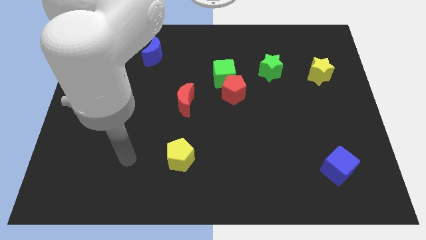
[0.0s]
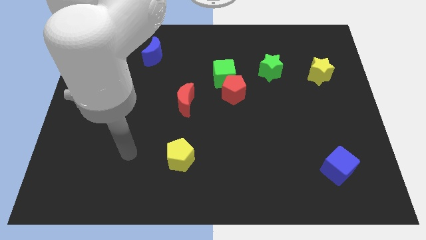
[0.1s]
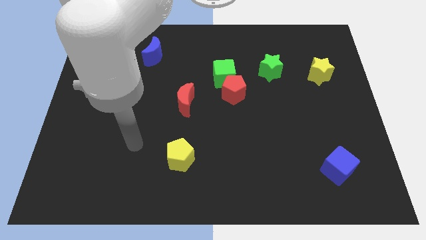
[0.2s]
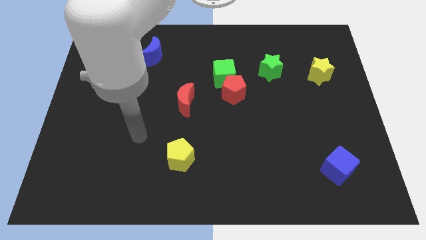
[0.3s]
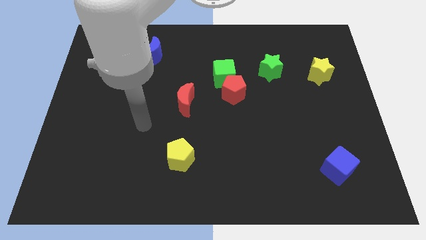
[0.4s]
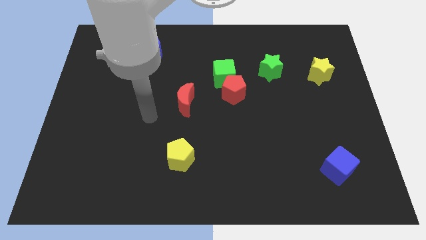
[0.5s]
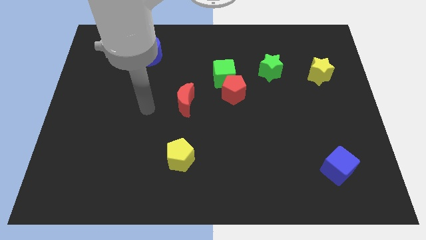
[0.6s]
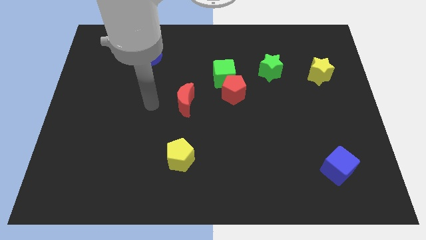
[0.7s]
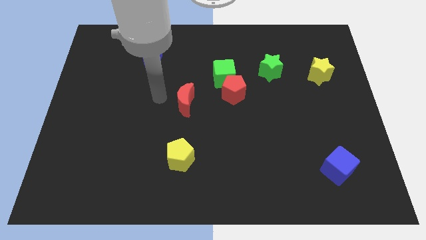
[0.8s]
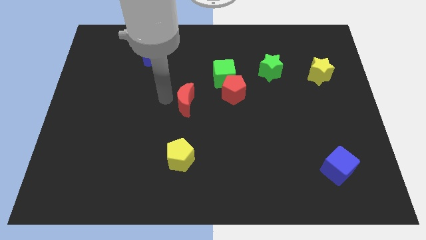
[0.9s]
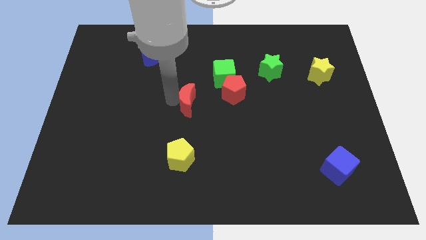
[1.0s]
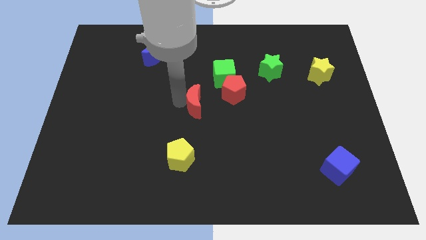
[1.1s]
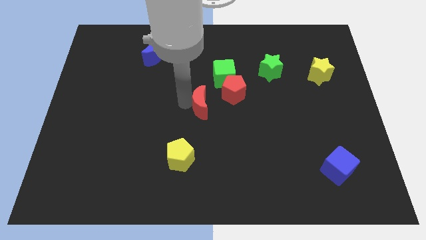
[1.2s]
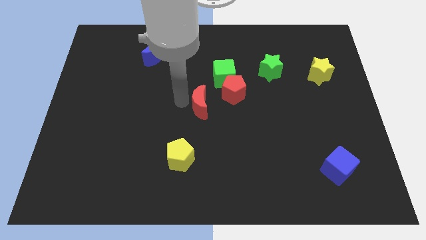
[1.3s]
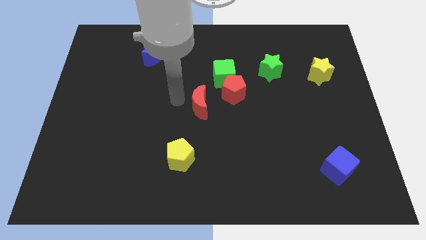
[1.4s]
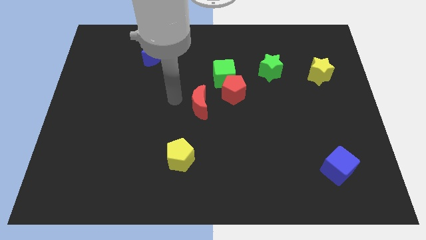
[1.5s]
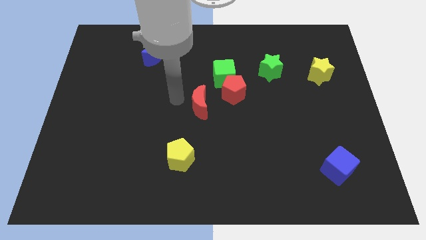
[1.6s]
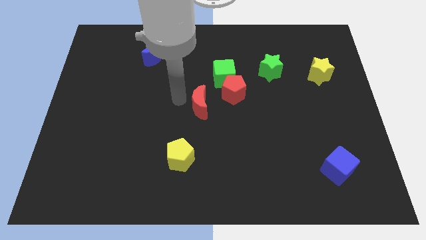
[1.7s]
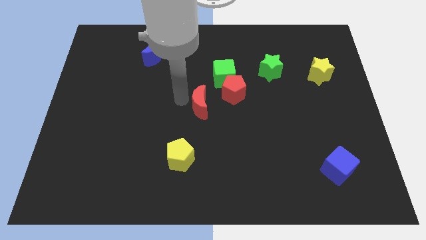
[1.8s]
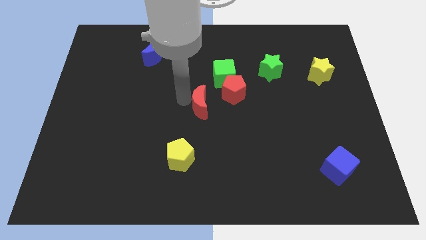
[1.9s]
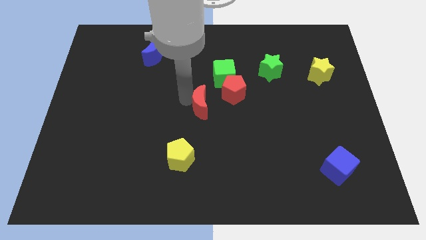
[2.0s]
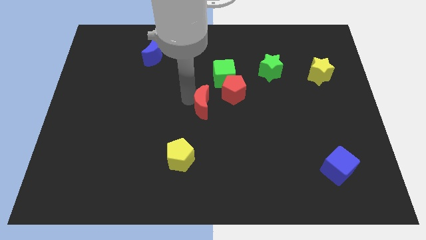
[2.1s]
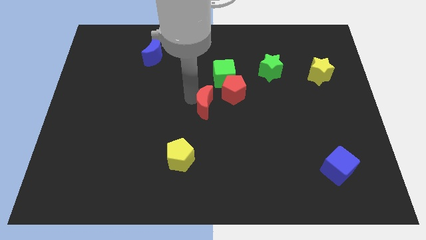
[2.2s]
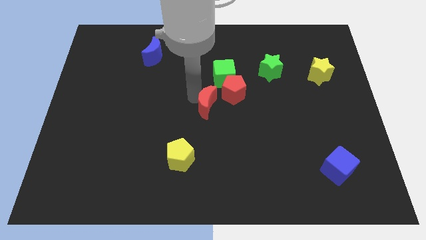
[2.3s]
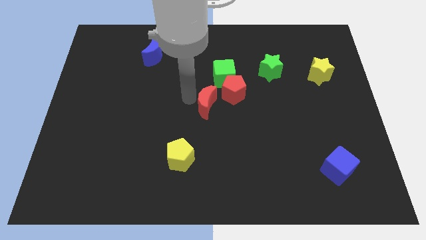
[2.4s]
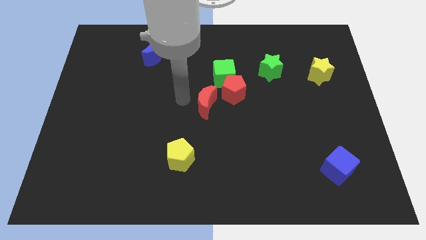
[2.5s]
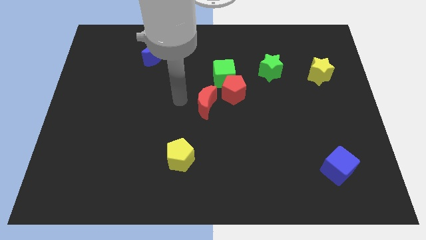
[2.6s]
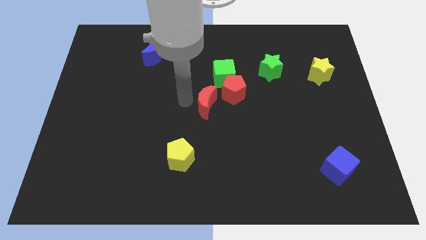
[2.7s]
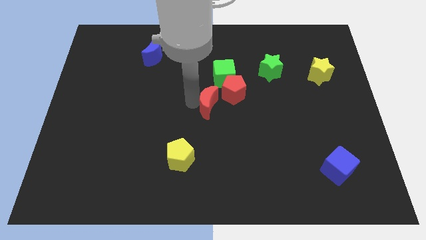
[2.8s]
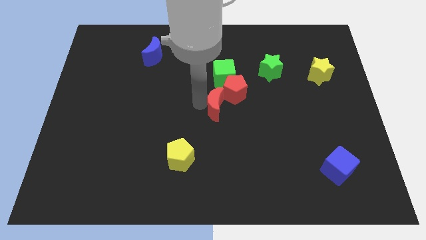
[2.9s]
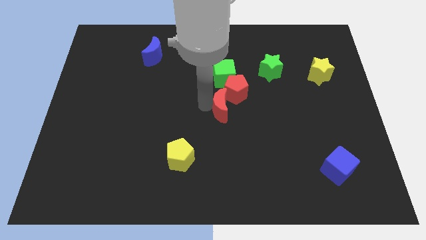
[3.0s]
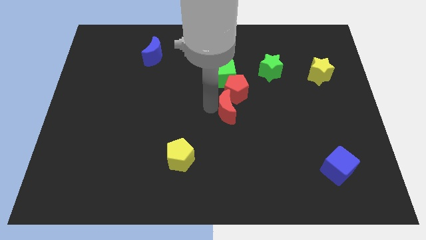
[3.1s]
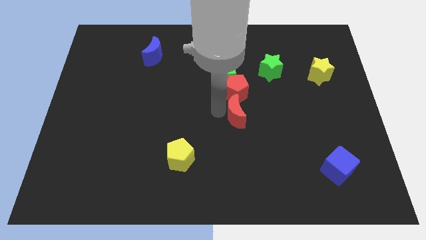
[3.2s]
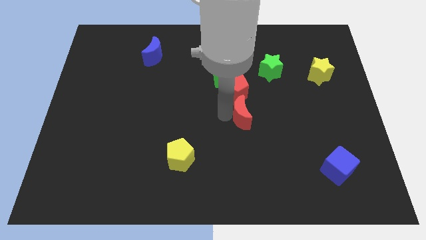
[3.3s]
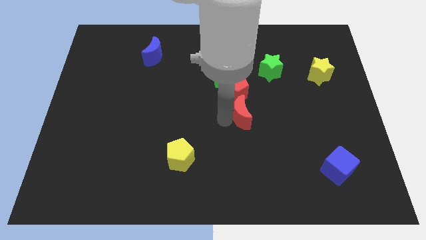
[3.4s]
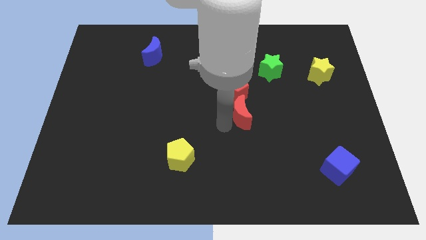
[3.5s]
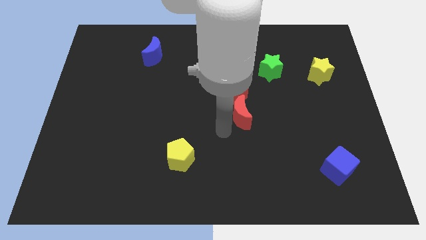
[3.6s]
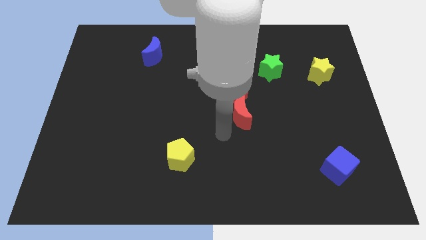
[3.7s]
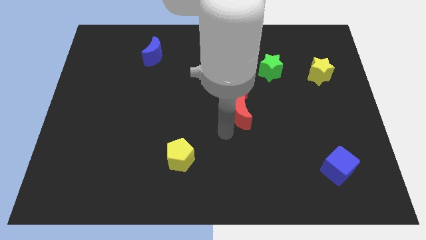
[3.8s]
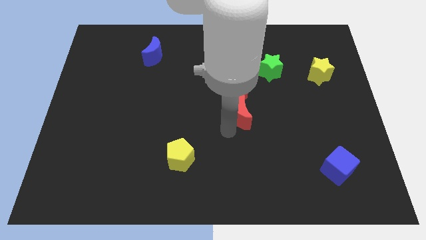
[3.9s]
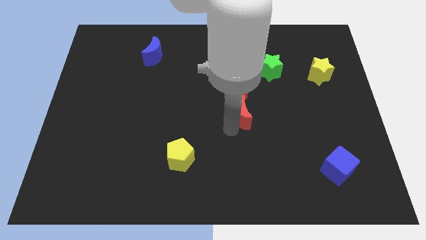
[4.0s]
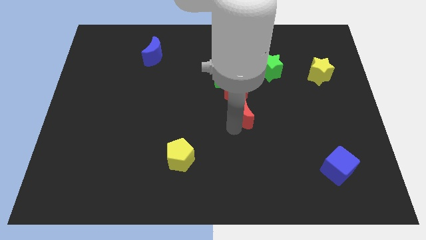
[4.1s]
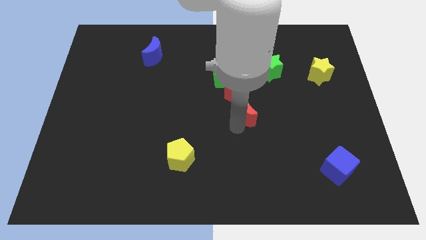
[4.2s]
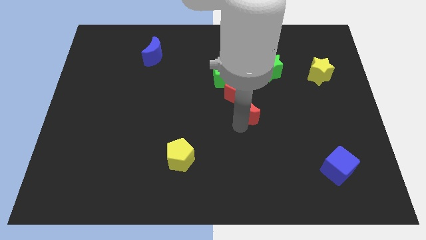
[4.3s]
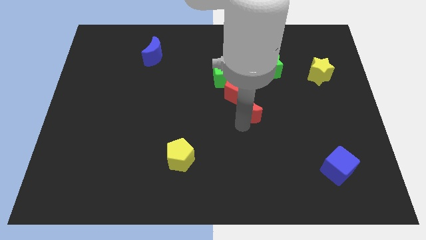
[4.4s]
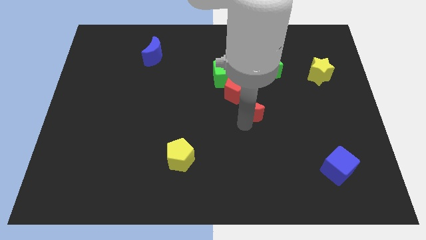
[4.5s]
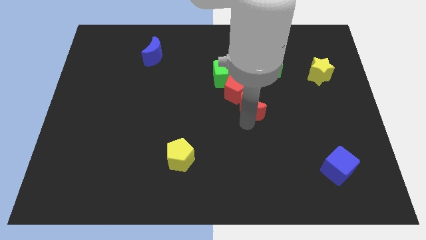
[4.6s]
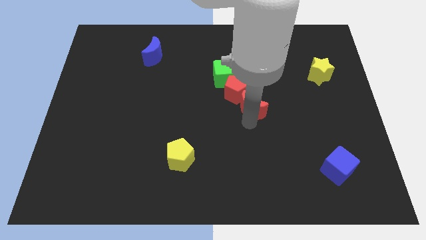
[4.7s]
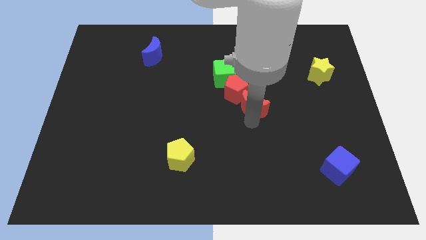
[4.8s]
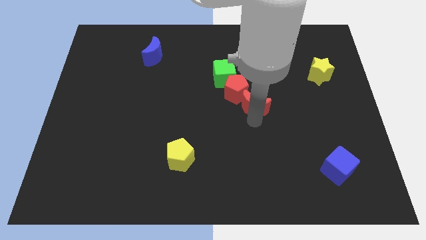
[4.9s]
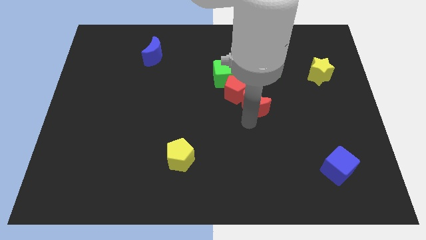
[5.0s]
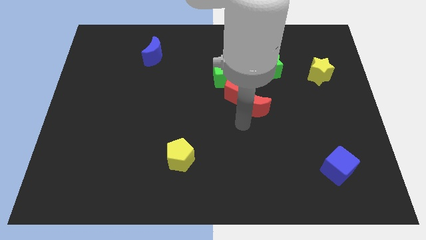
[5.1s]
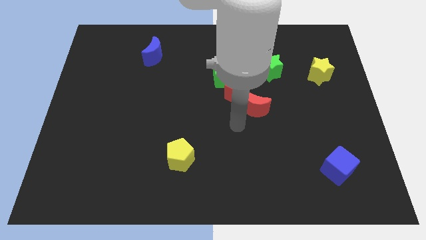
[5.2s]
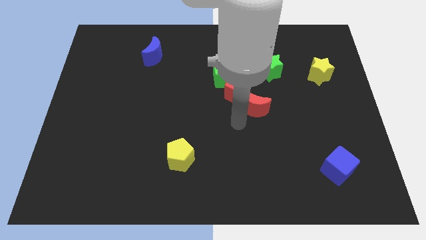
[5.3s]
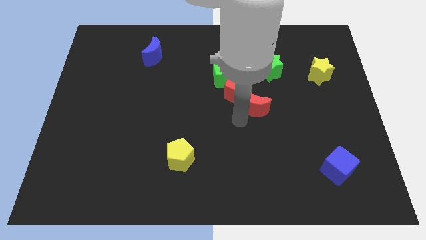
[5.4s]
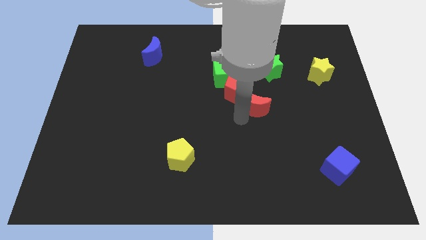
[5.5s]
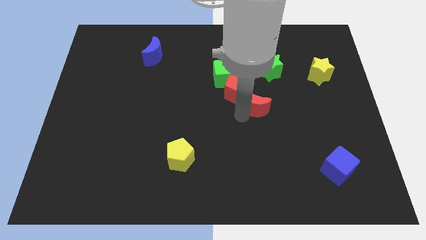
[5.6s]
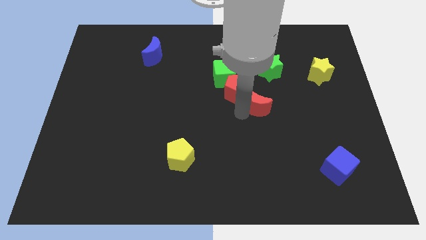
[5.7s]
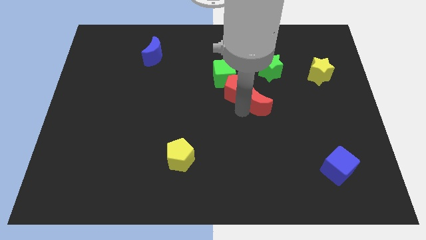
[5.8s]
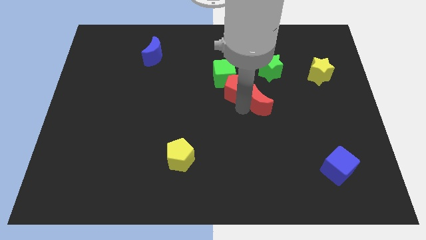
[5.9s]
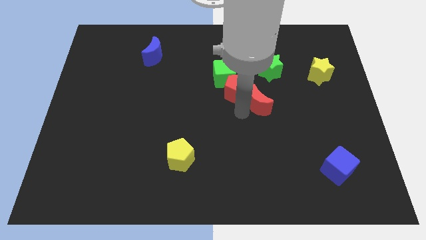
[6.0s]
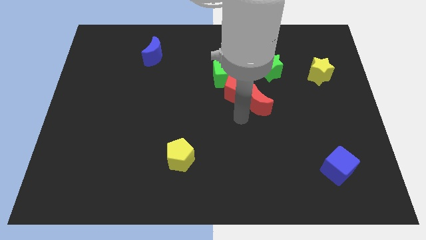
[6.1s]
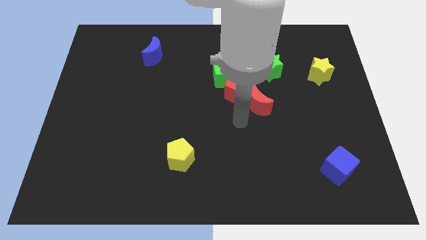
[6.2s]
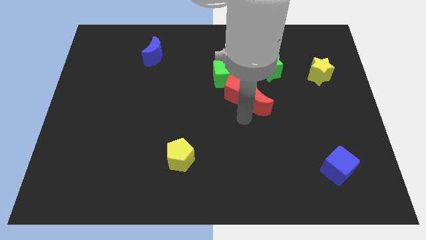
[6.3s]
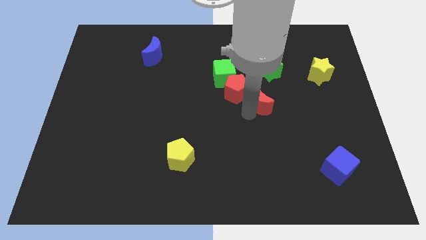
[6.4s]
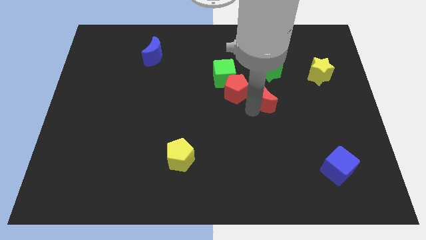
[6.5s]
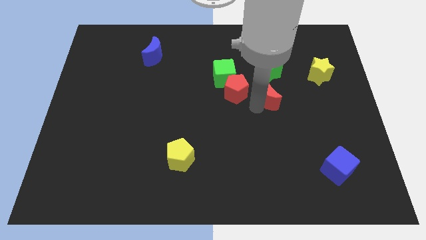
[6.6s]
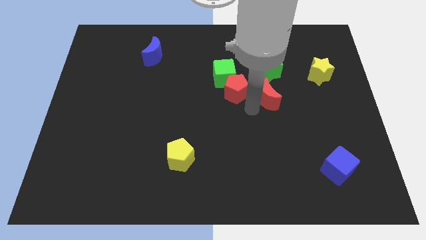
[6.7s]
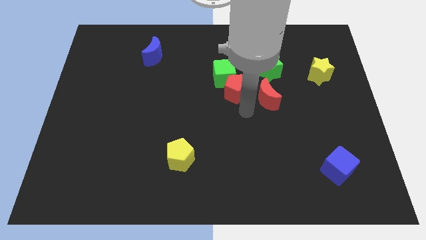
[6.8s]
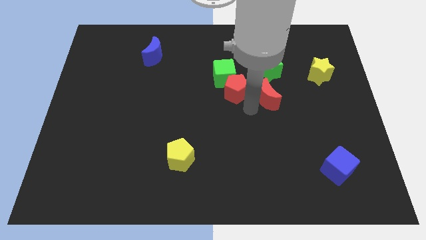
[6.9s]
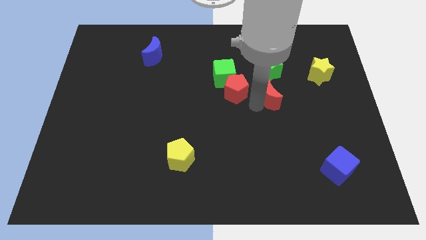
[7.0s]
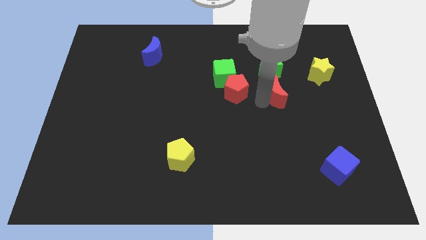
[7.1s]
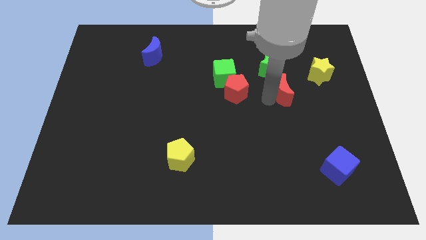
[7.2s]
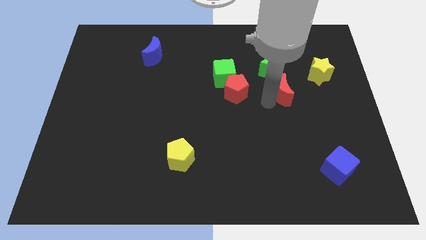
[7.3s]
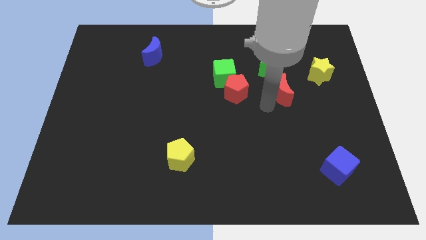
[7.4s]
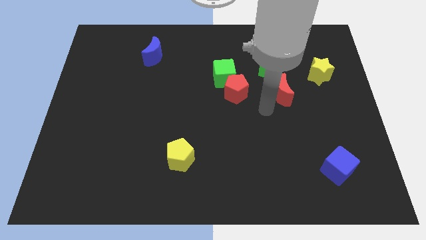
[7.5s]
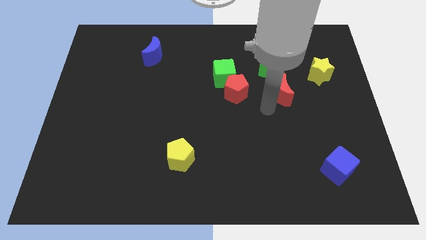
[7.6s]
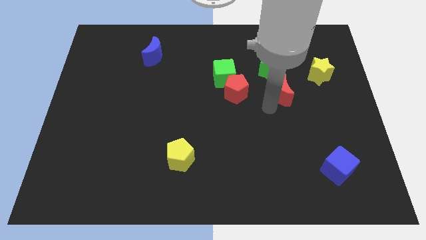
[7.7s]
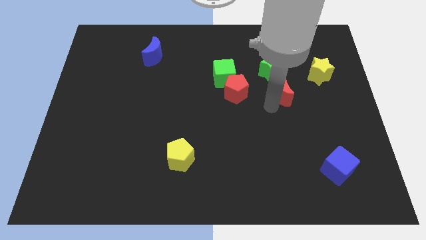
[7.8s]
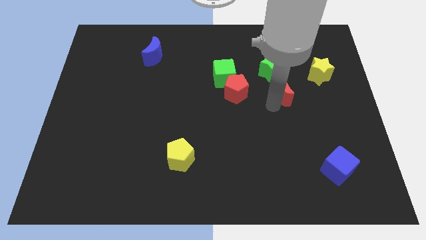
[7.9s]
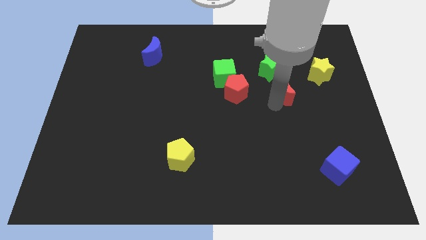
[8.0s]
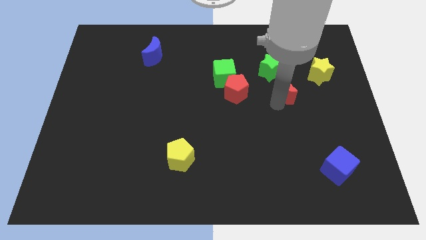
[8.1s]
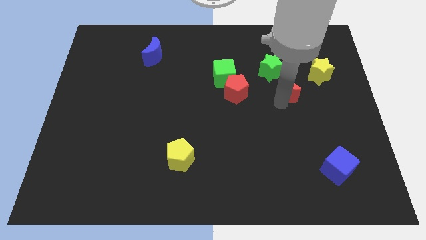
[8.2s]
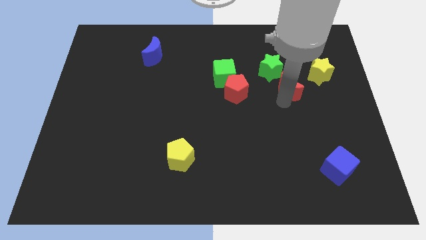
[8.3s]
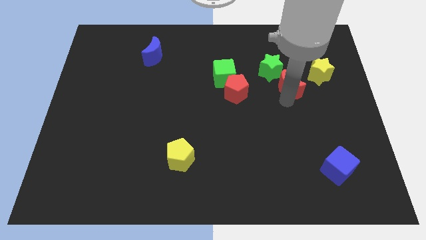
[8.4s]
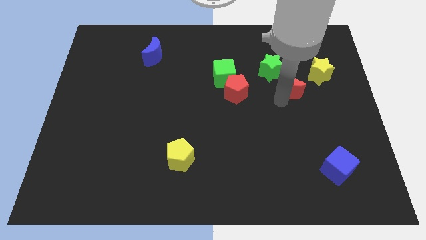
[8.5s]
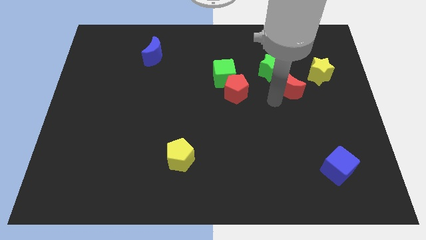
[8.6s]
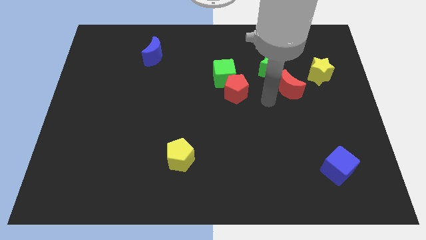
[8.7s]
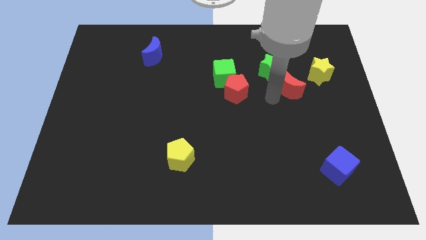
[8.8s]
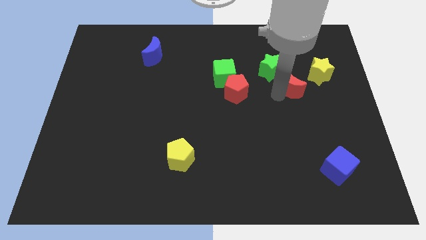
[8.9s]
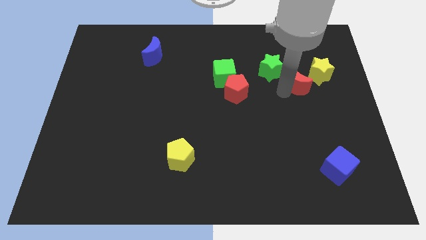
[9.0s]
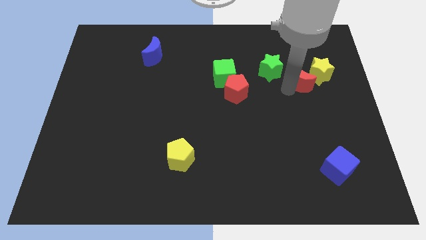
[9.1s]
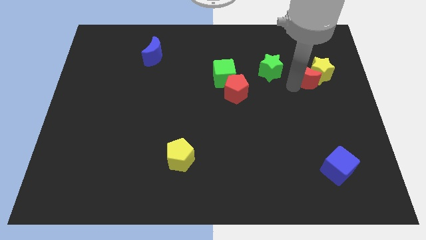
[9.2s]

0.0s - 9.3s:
slide the red moon next to the yellow star
